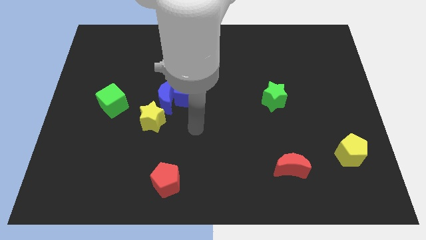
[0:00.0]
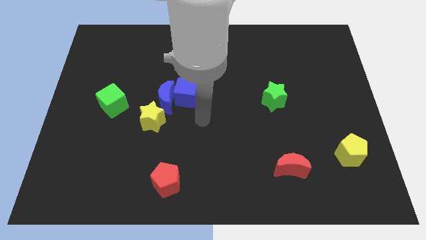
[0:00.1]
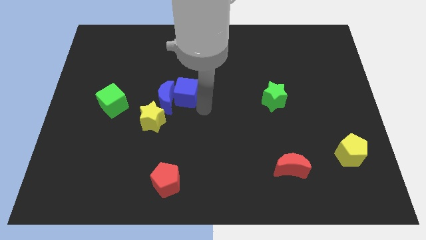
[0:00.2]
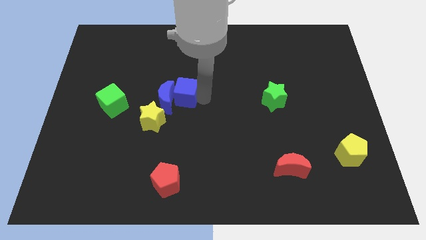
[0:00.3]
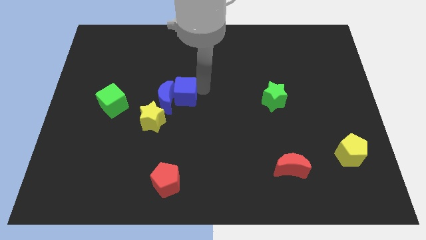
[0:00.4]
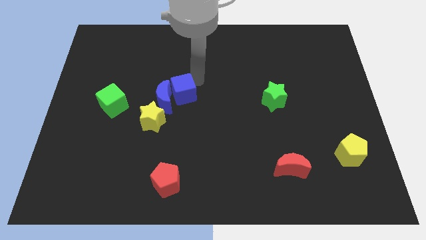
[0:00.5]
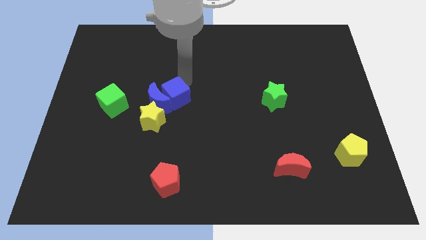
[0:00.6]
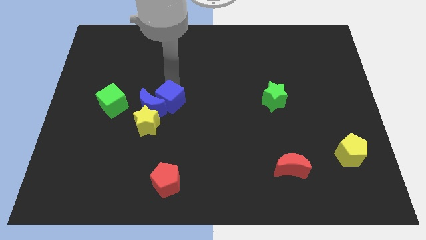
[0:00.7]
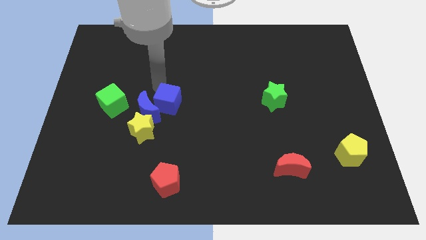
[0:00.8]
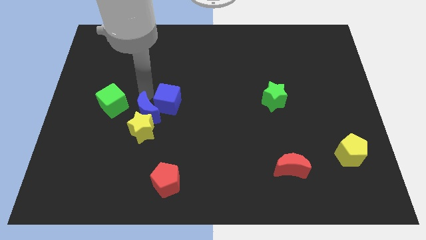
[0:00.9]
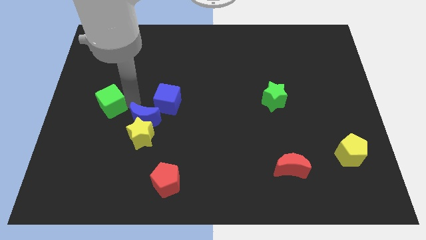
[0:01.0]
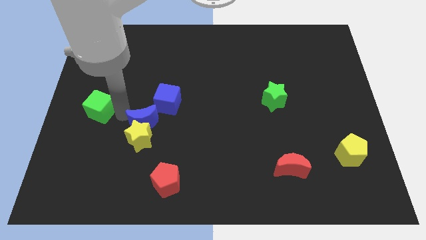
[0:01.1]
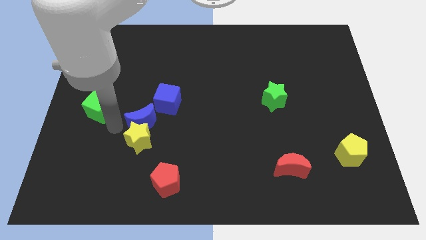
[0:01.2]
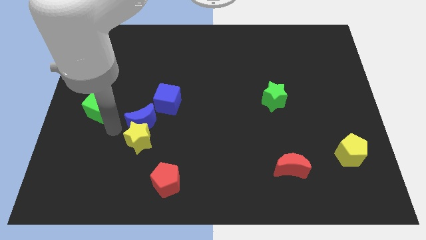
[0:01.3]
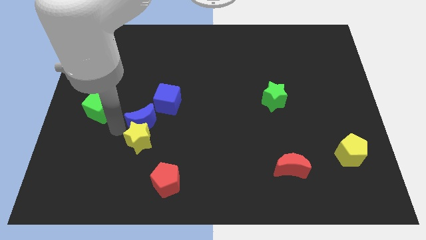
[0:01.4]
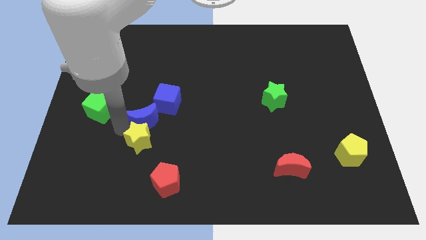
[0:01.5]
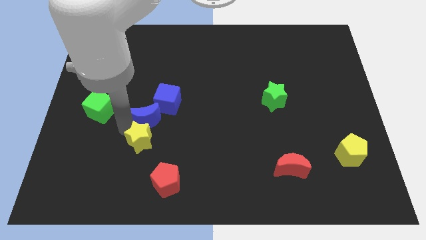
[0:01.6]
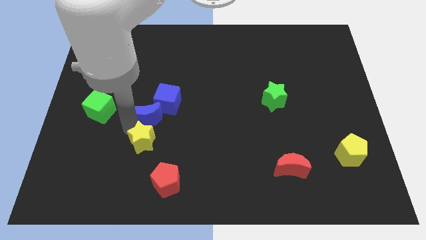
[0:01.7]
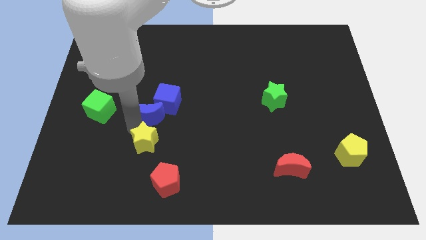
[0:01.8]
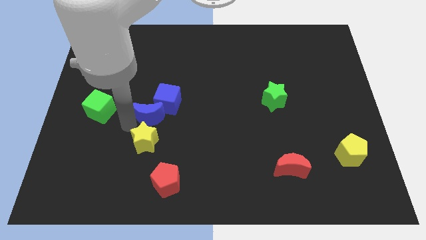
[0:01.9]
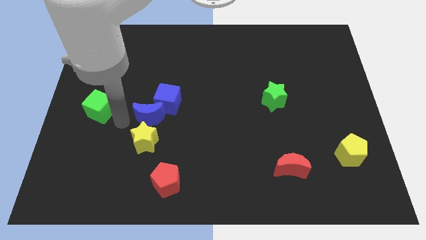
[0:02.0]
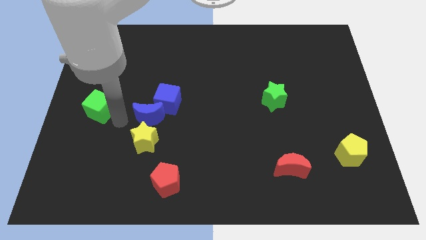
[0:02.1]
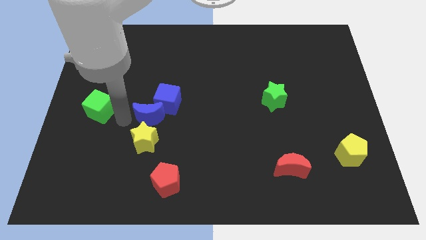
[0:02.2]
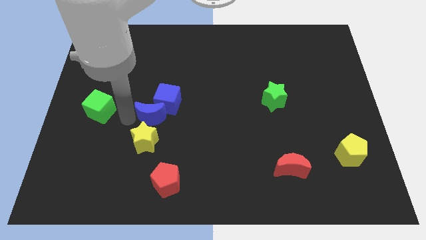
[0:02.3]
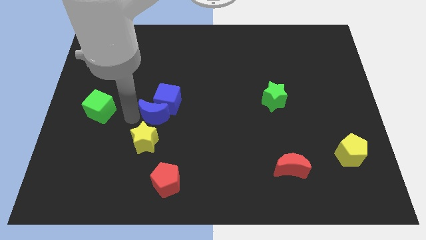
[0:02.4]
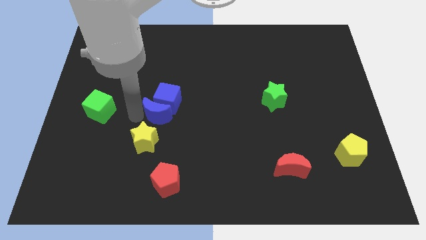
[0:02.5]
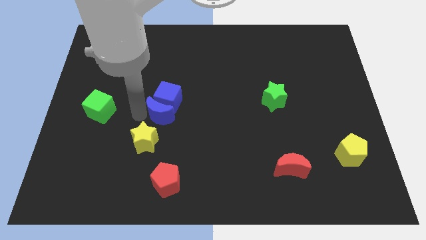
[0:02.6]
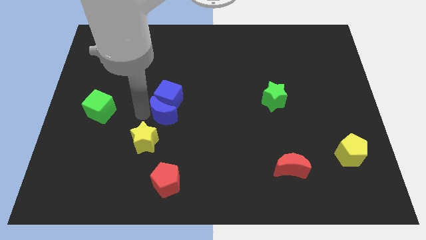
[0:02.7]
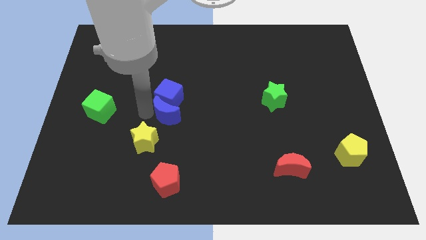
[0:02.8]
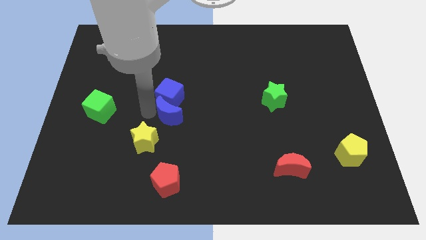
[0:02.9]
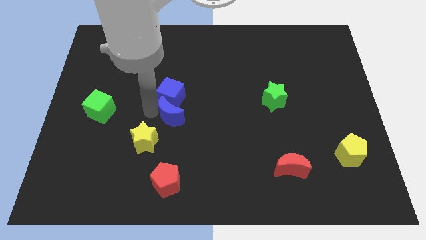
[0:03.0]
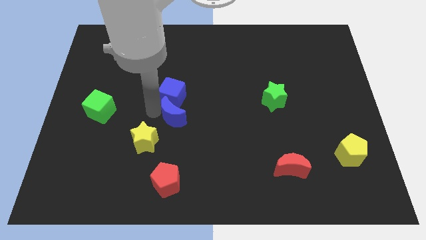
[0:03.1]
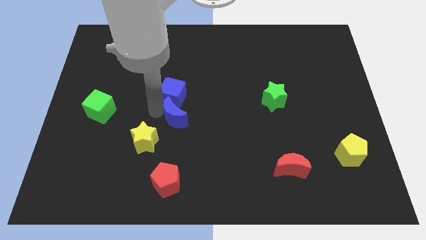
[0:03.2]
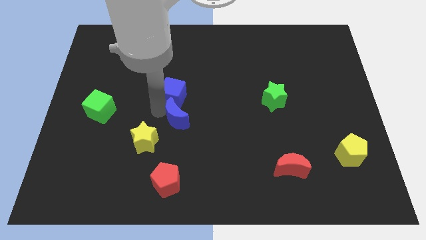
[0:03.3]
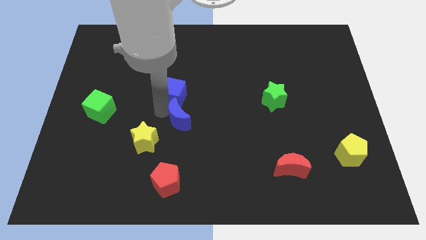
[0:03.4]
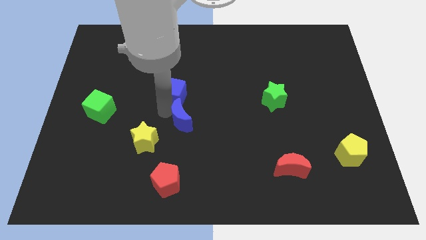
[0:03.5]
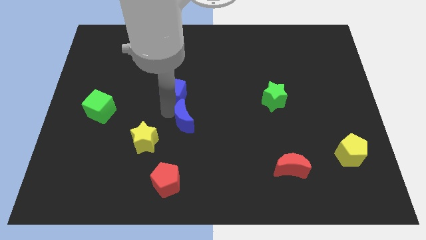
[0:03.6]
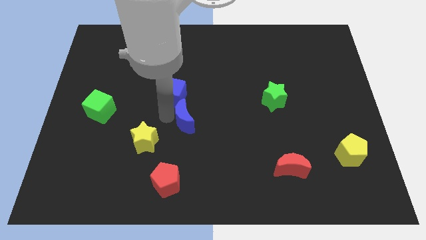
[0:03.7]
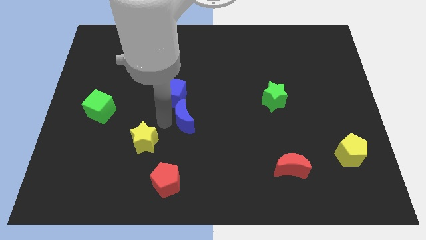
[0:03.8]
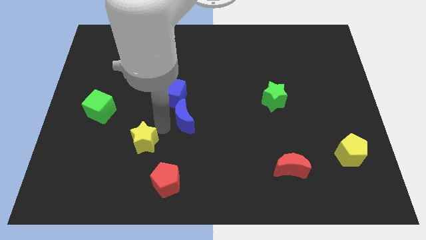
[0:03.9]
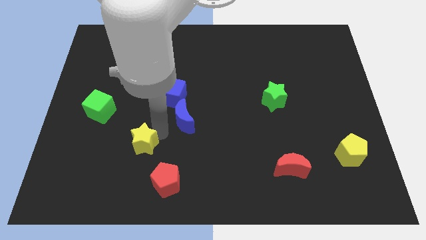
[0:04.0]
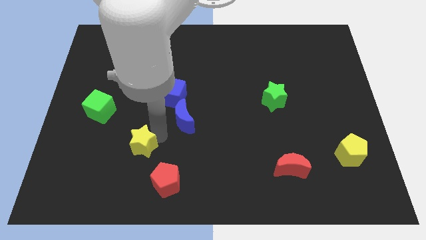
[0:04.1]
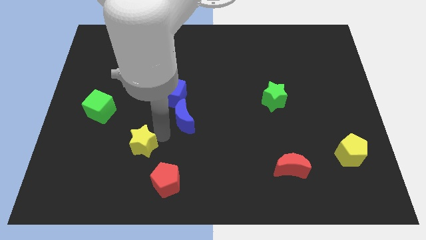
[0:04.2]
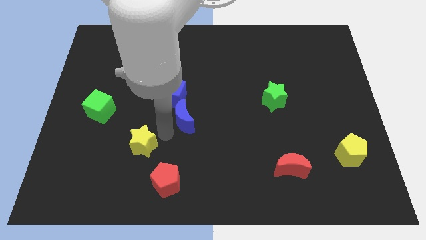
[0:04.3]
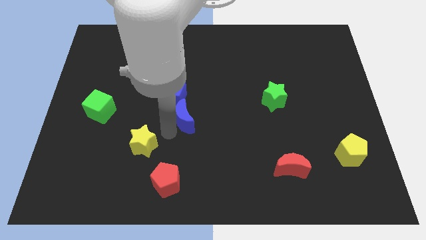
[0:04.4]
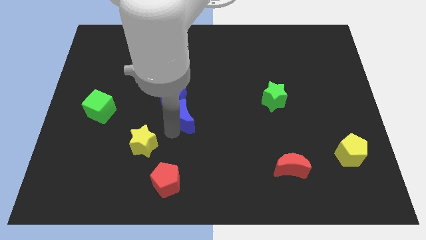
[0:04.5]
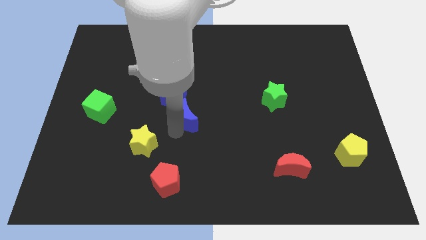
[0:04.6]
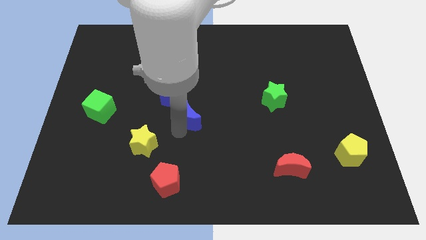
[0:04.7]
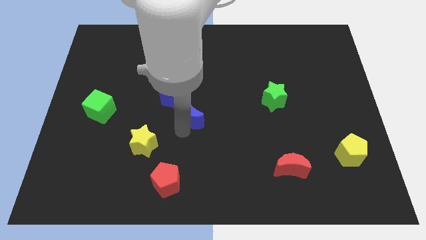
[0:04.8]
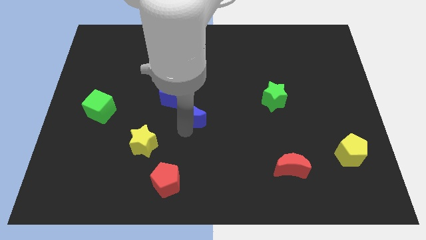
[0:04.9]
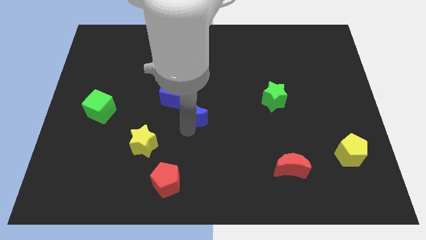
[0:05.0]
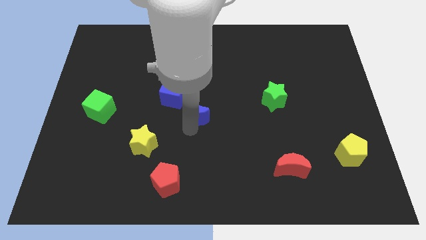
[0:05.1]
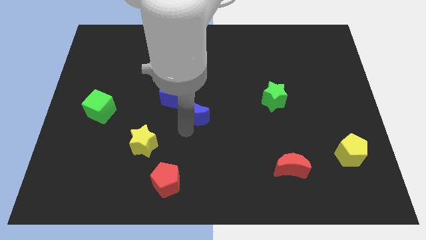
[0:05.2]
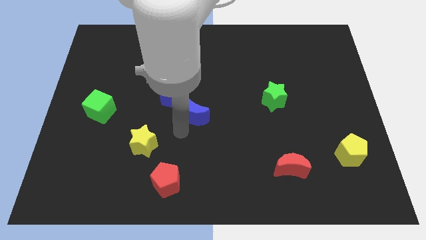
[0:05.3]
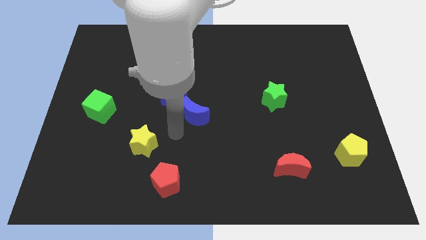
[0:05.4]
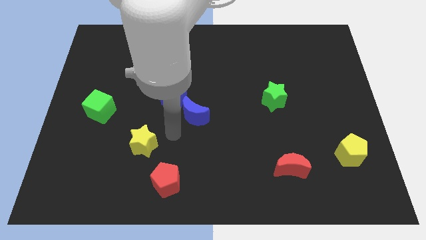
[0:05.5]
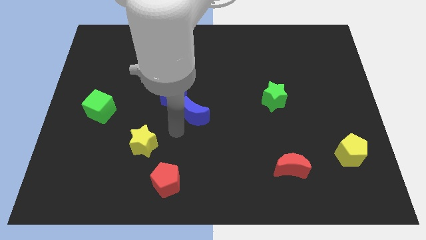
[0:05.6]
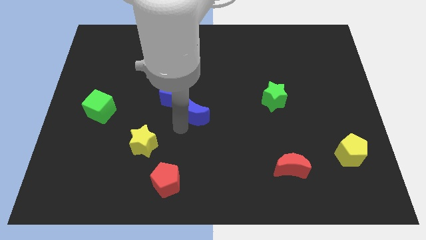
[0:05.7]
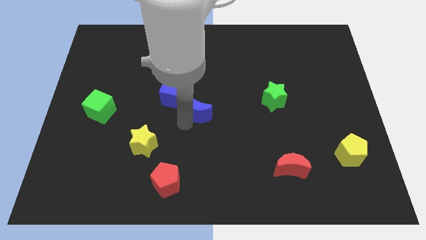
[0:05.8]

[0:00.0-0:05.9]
push the blue moon a bit right

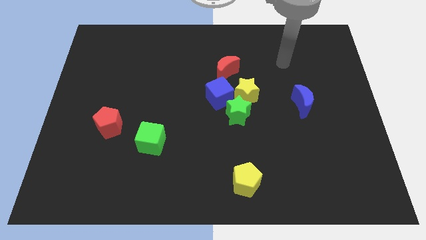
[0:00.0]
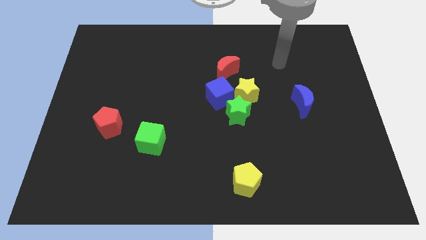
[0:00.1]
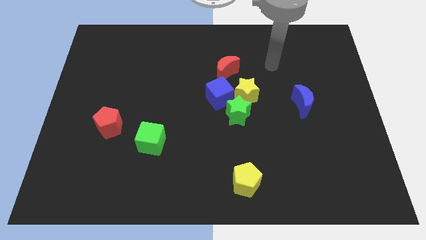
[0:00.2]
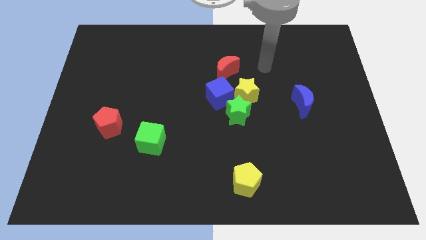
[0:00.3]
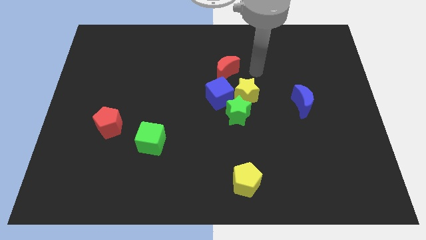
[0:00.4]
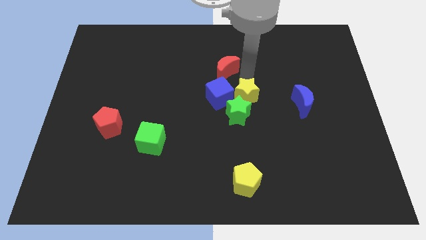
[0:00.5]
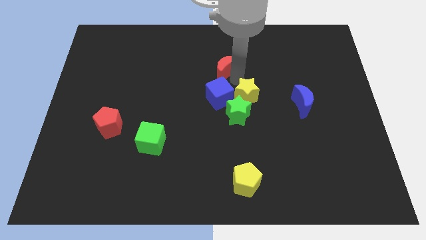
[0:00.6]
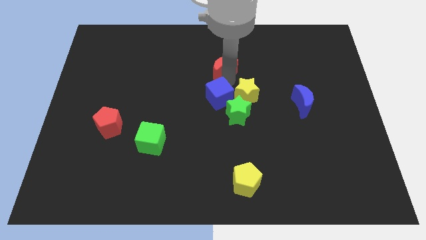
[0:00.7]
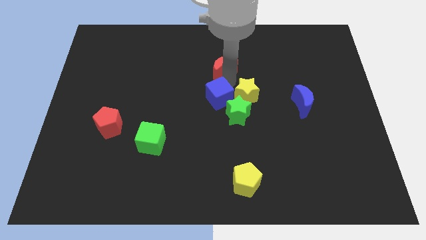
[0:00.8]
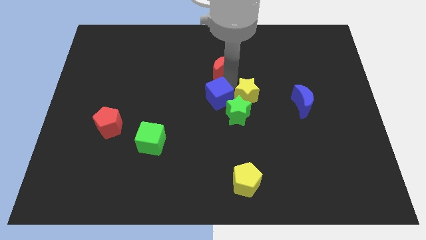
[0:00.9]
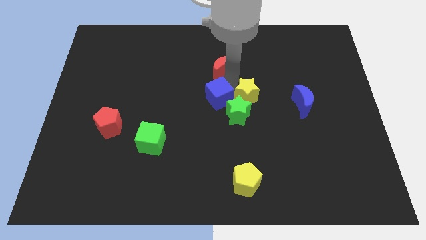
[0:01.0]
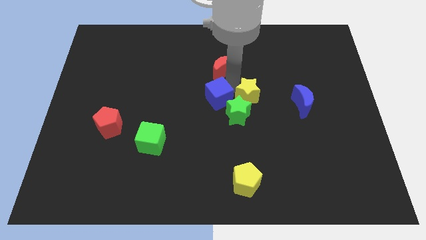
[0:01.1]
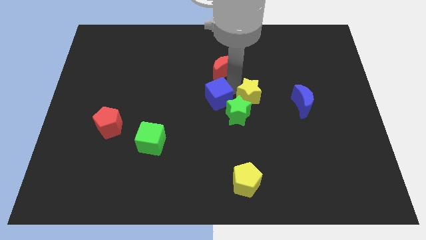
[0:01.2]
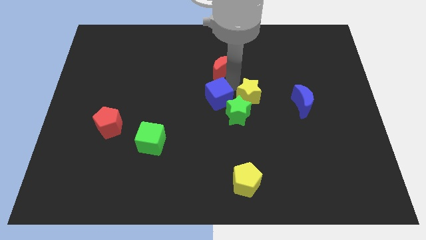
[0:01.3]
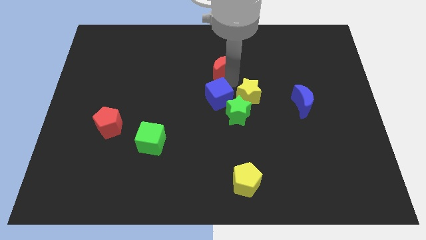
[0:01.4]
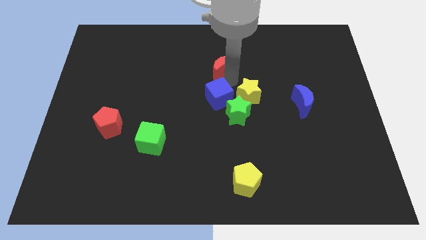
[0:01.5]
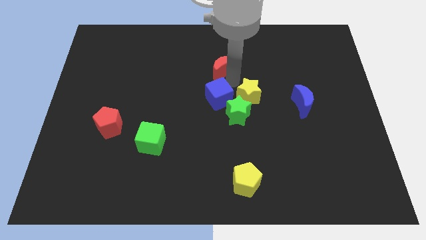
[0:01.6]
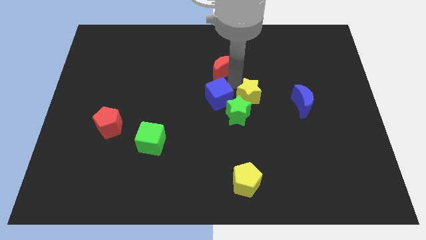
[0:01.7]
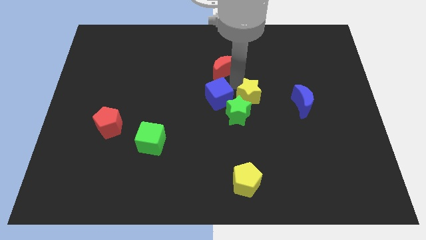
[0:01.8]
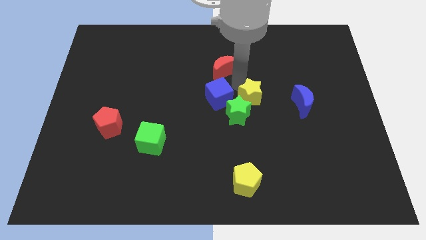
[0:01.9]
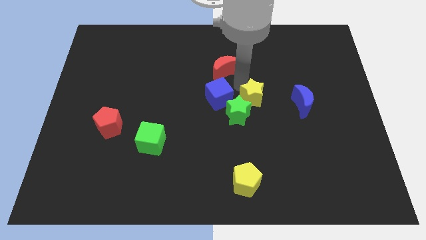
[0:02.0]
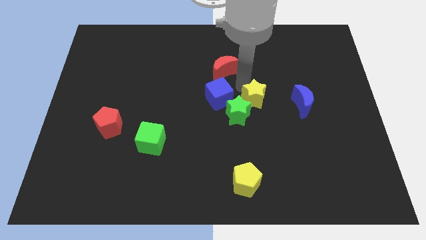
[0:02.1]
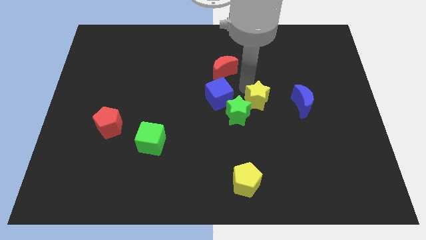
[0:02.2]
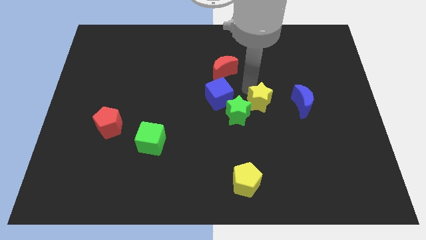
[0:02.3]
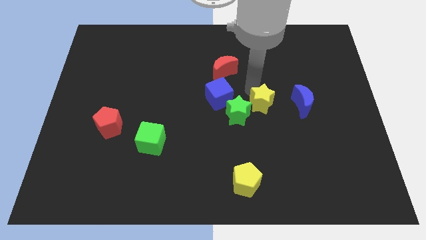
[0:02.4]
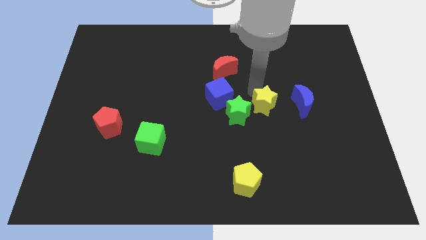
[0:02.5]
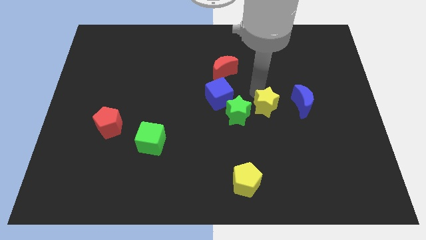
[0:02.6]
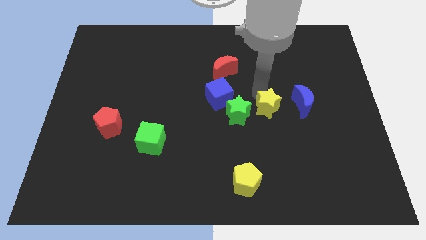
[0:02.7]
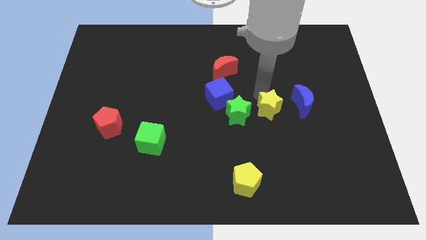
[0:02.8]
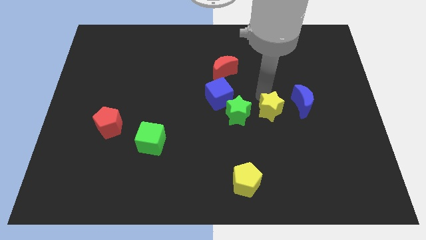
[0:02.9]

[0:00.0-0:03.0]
slide the yellow star diagonally downwards and to the right somewhat
